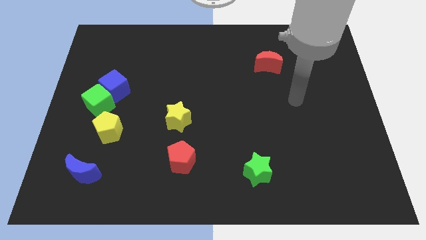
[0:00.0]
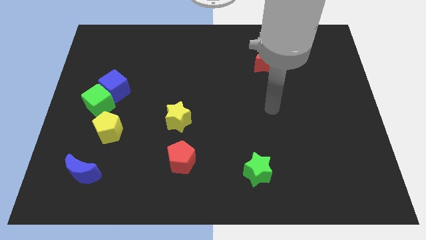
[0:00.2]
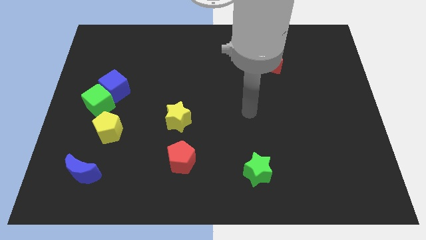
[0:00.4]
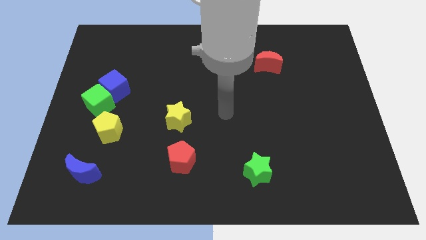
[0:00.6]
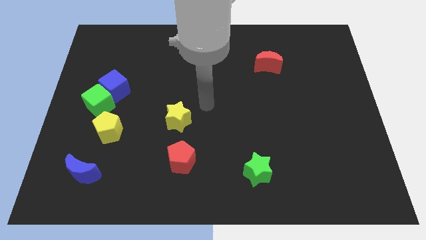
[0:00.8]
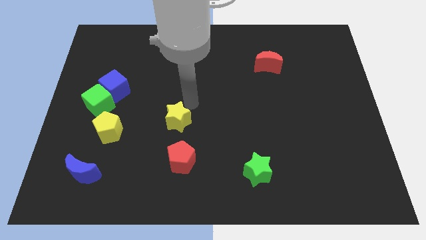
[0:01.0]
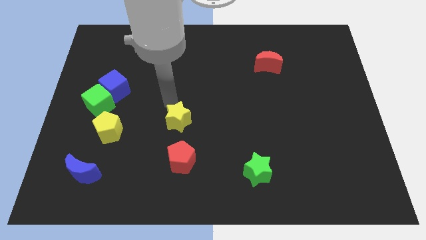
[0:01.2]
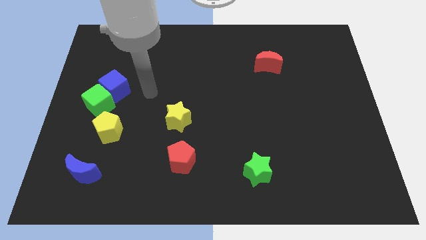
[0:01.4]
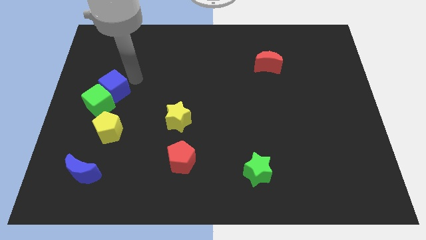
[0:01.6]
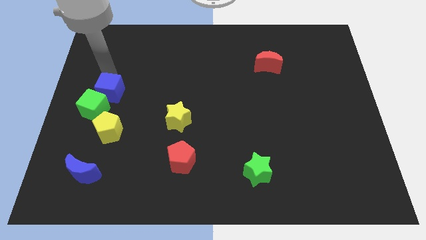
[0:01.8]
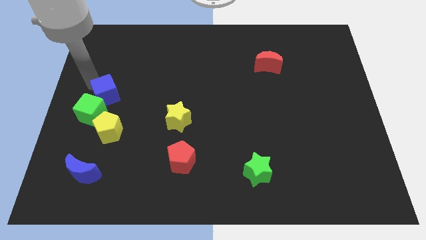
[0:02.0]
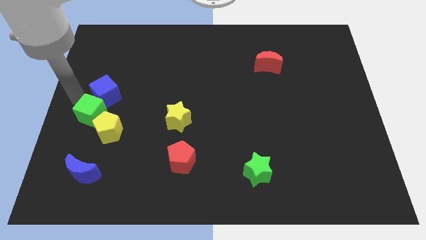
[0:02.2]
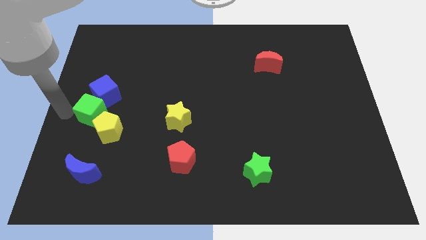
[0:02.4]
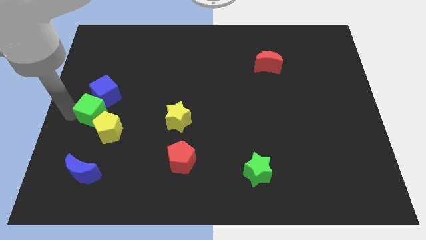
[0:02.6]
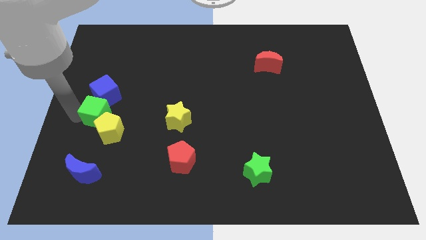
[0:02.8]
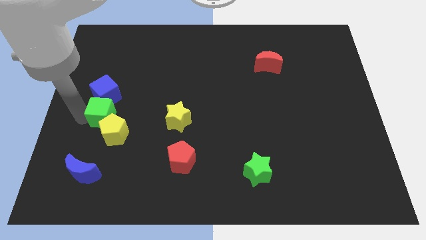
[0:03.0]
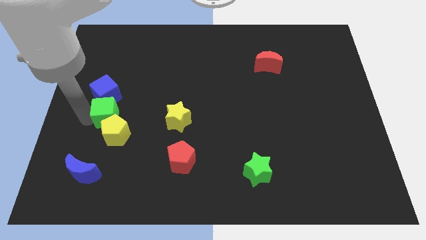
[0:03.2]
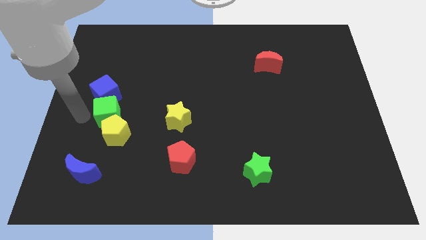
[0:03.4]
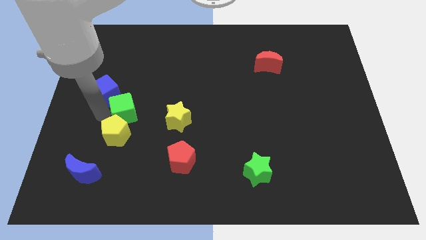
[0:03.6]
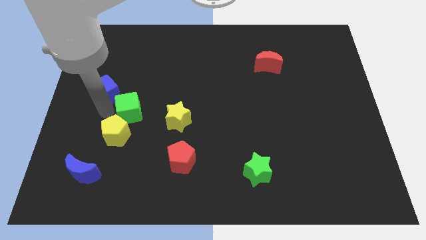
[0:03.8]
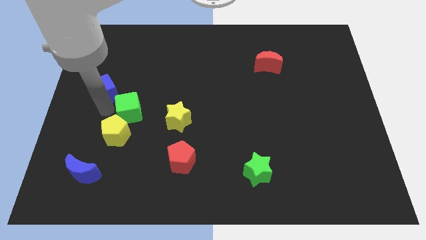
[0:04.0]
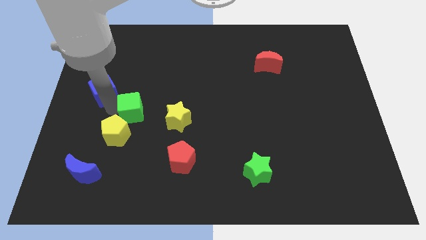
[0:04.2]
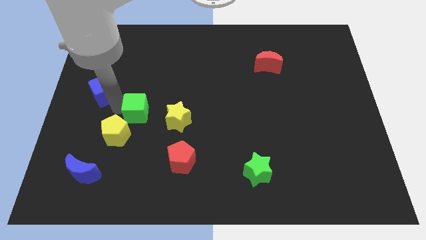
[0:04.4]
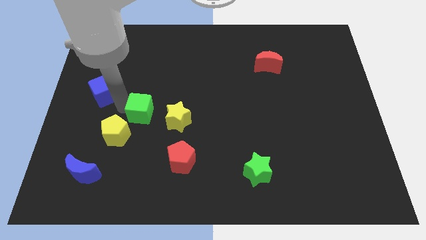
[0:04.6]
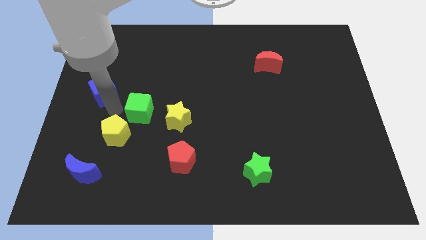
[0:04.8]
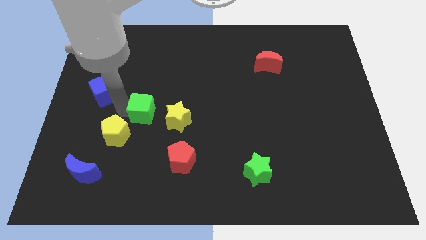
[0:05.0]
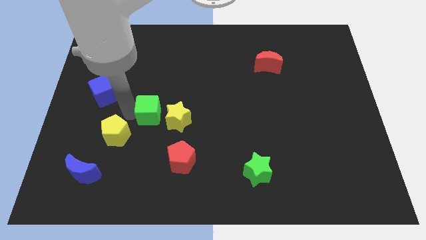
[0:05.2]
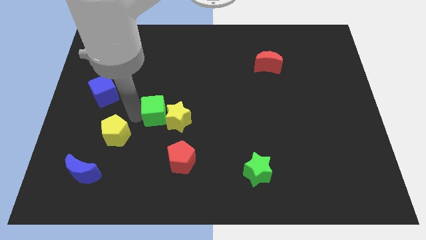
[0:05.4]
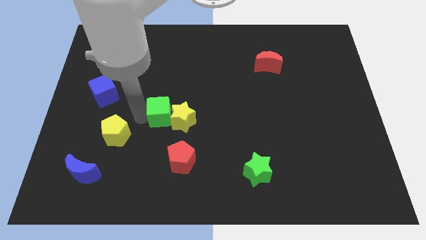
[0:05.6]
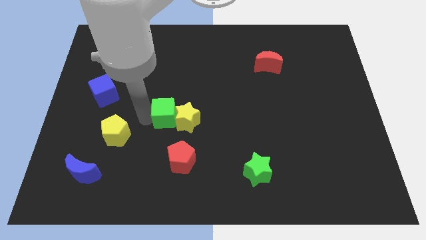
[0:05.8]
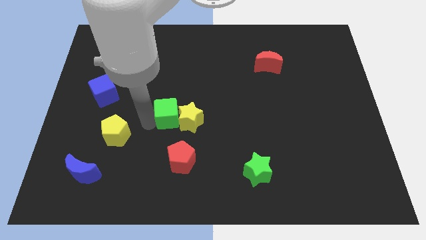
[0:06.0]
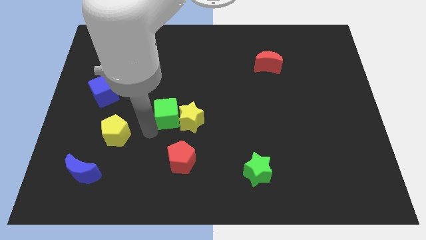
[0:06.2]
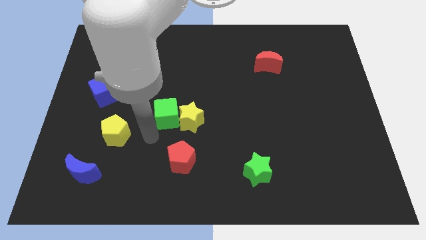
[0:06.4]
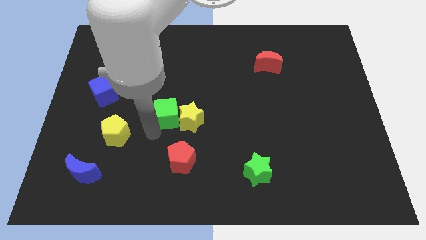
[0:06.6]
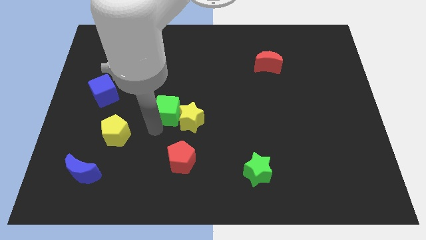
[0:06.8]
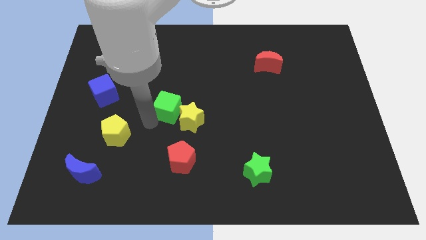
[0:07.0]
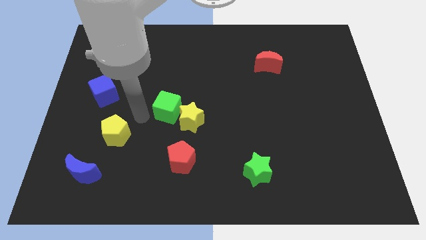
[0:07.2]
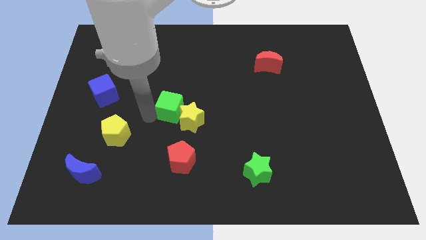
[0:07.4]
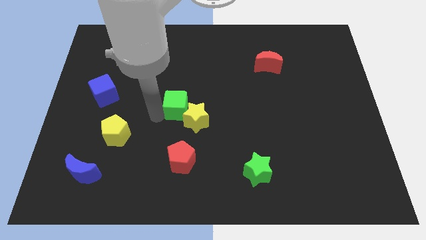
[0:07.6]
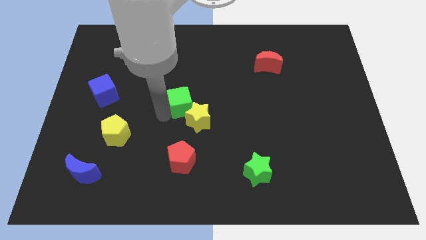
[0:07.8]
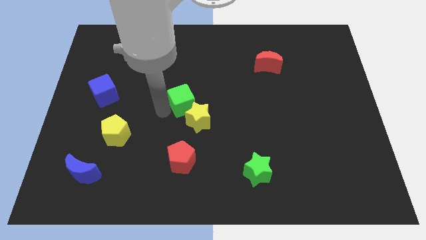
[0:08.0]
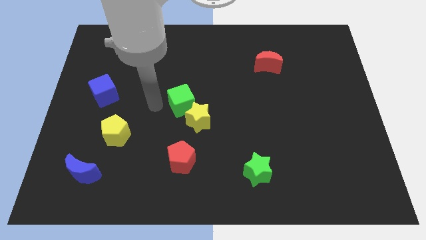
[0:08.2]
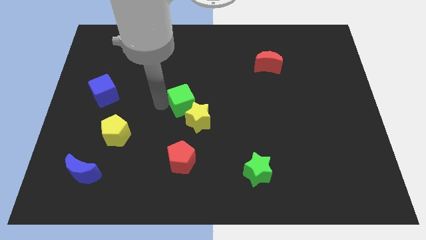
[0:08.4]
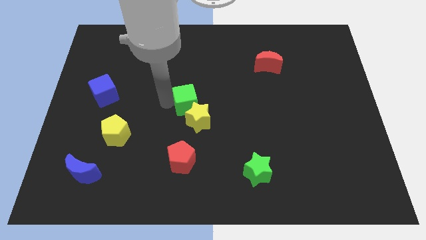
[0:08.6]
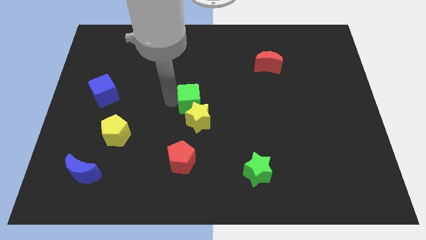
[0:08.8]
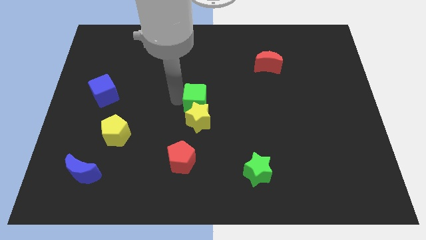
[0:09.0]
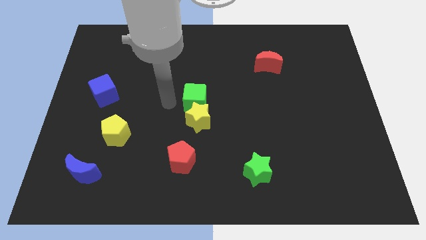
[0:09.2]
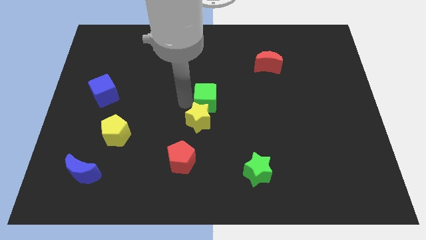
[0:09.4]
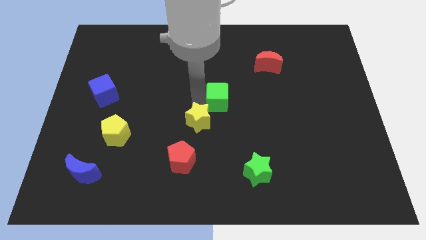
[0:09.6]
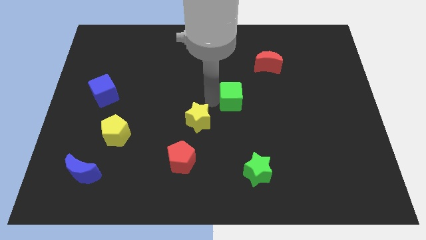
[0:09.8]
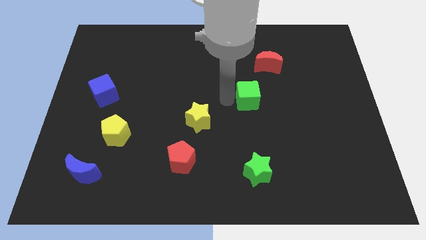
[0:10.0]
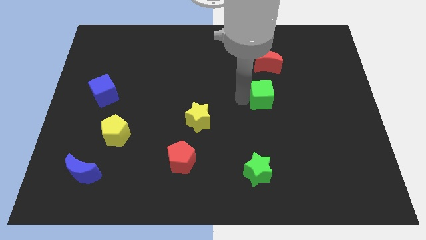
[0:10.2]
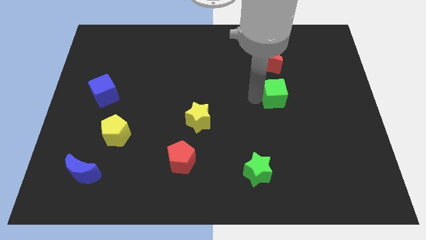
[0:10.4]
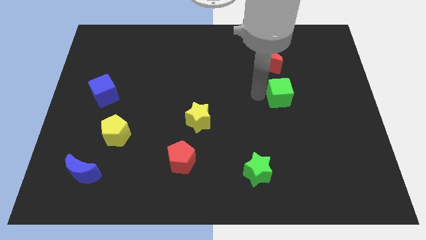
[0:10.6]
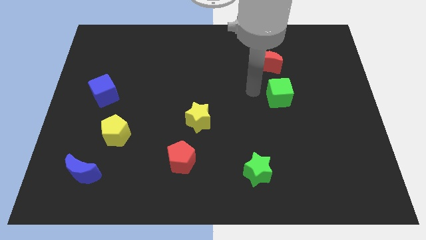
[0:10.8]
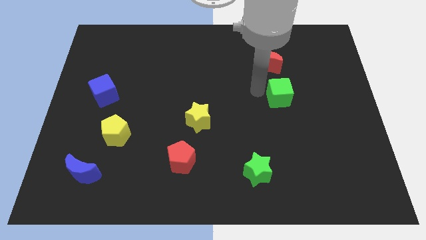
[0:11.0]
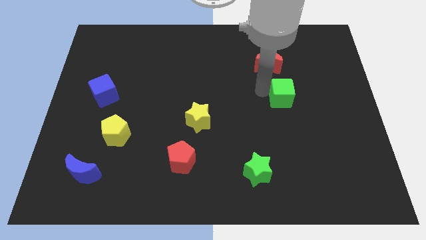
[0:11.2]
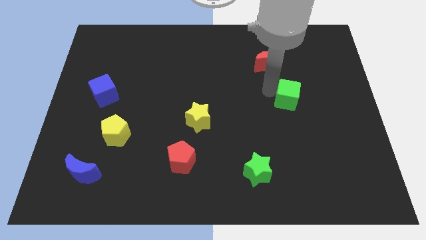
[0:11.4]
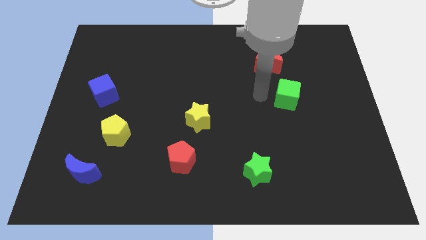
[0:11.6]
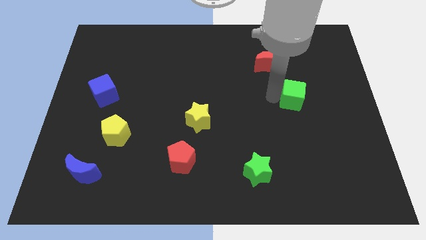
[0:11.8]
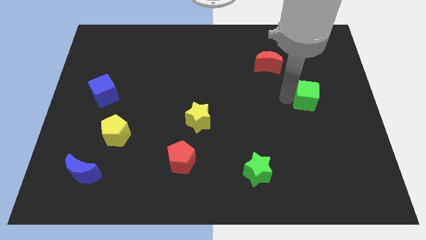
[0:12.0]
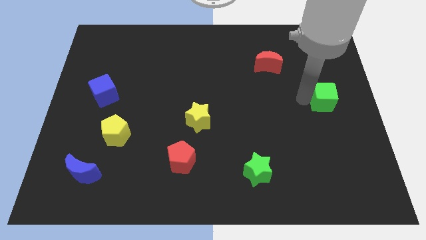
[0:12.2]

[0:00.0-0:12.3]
put the green cube to the center right
